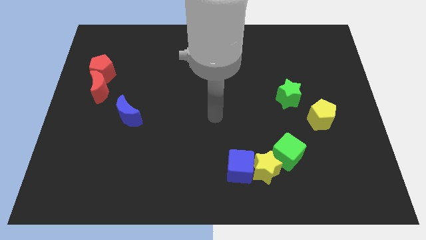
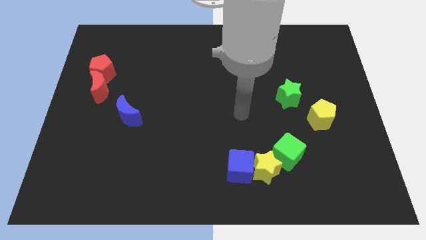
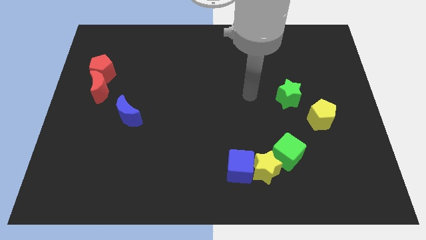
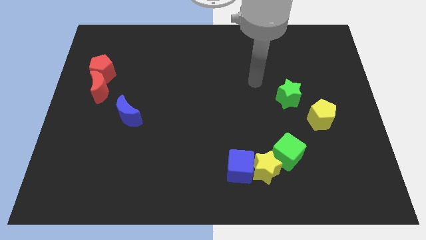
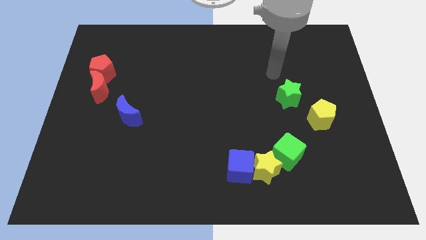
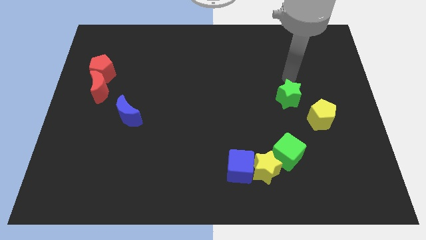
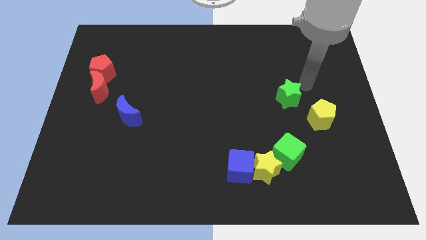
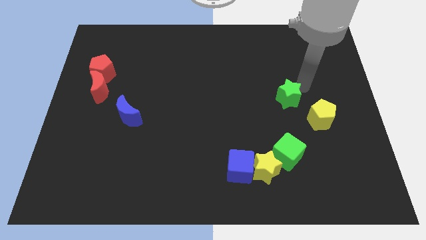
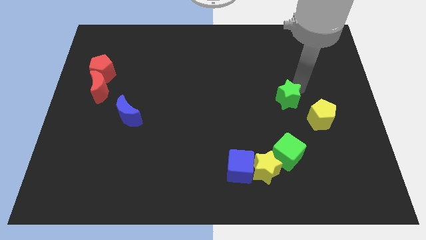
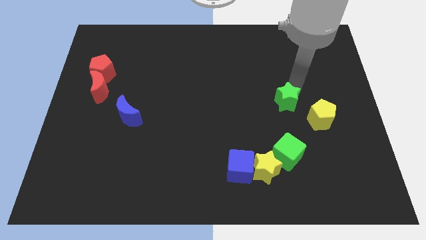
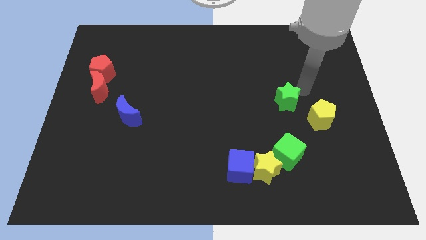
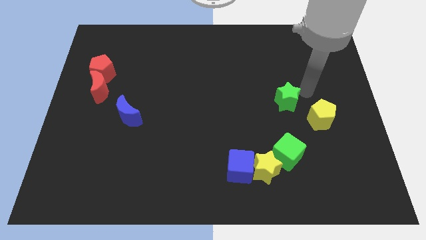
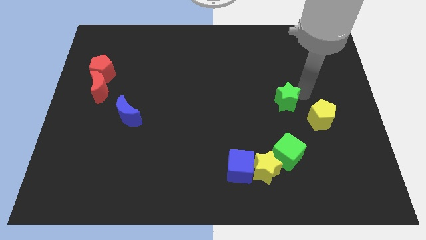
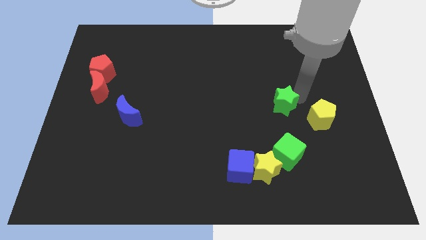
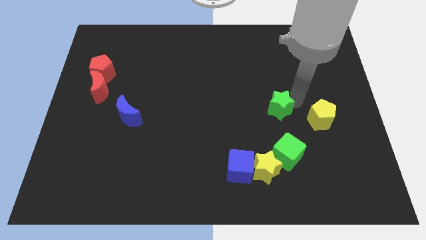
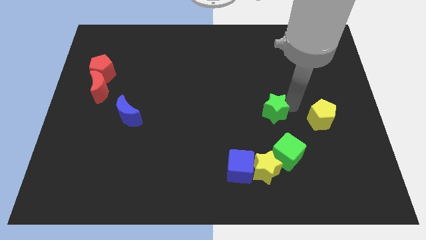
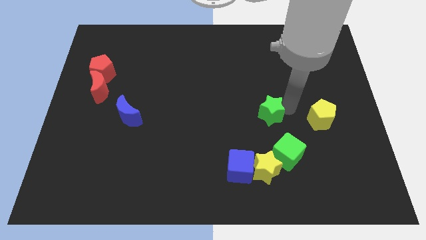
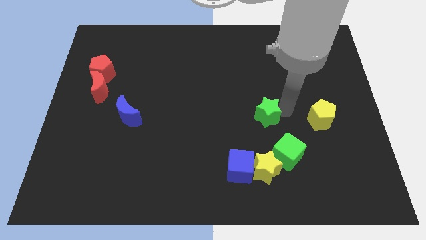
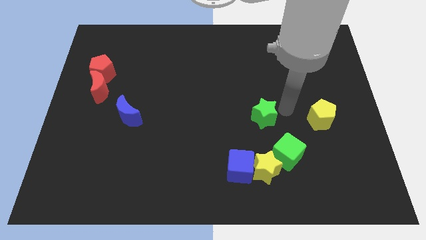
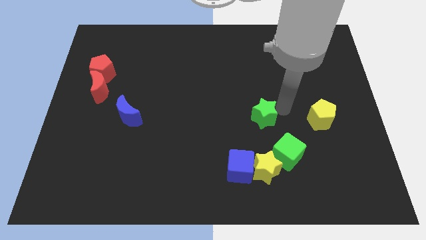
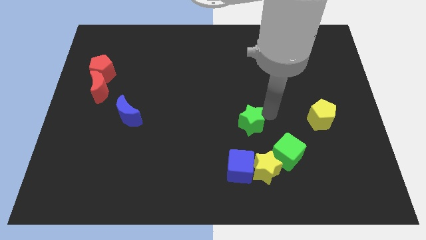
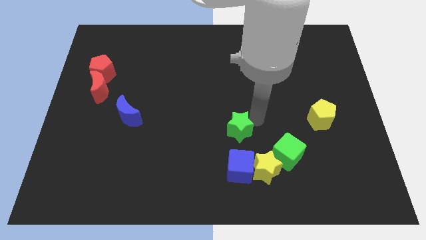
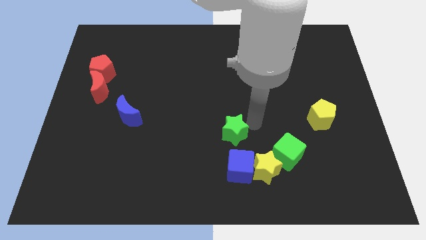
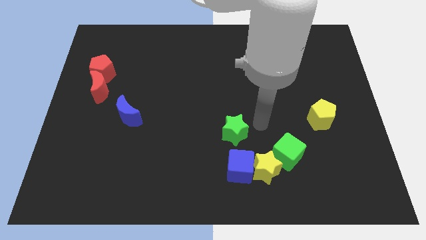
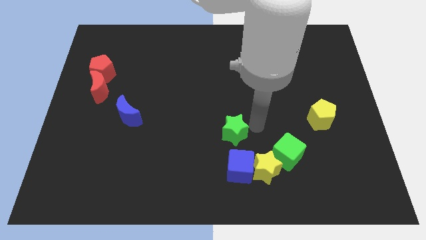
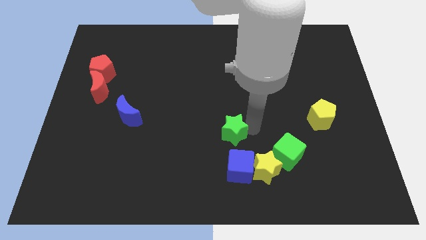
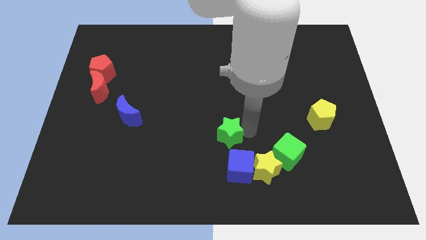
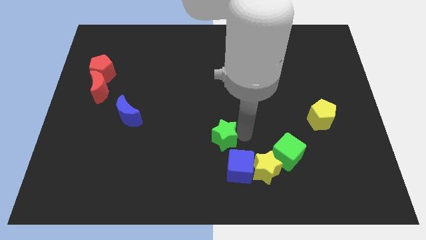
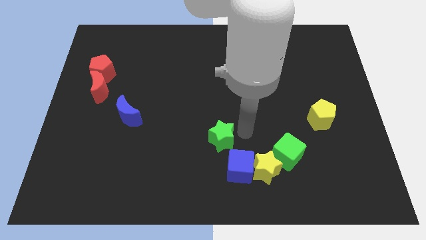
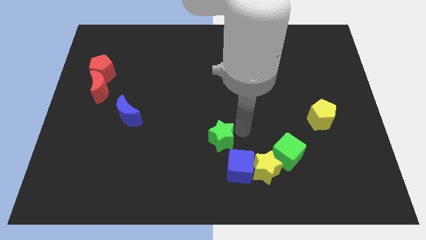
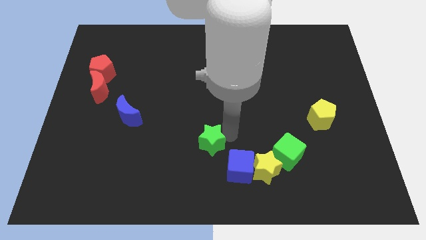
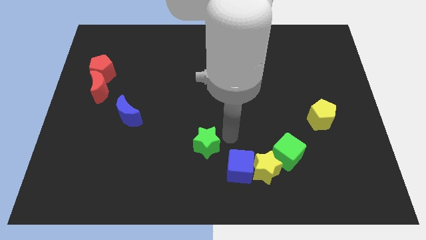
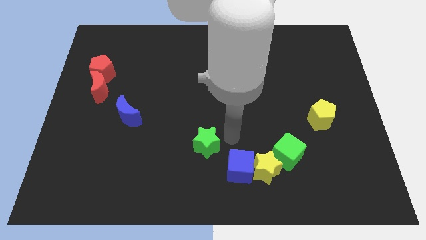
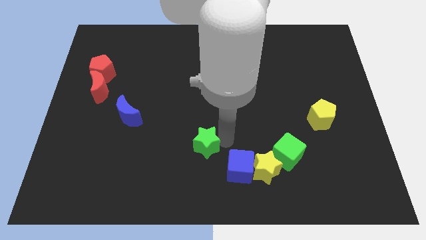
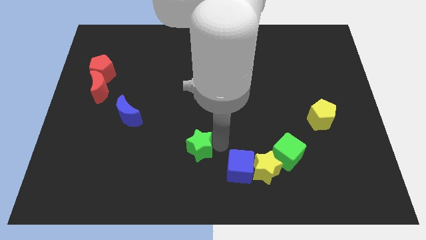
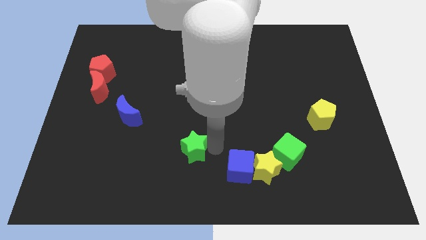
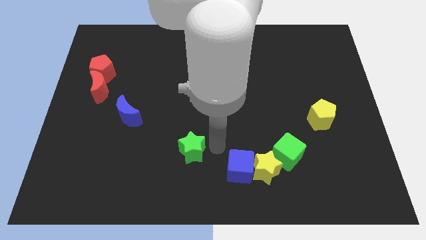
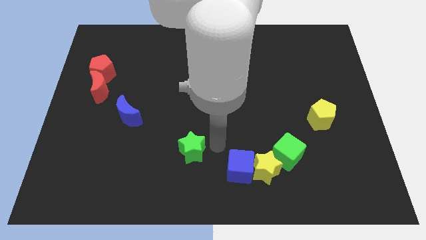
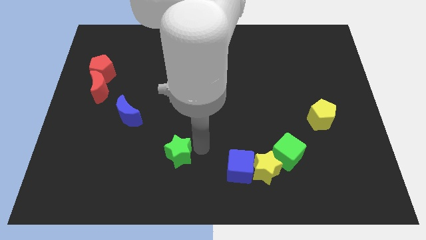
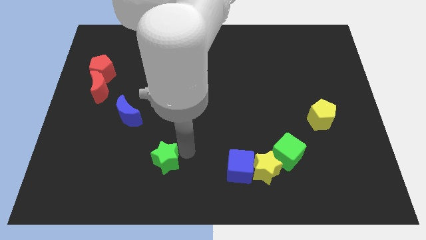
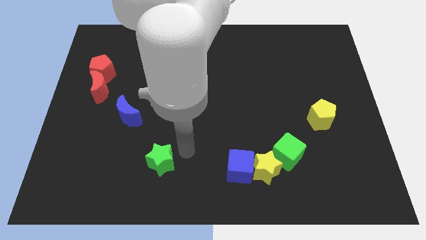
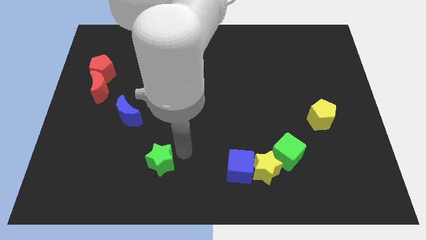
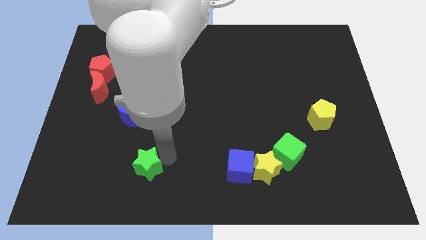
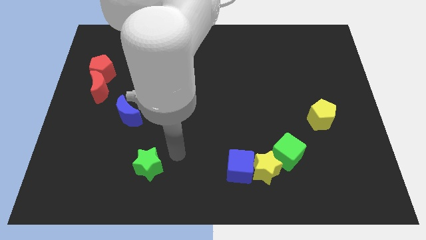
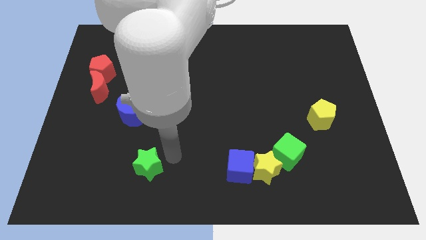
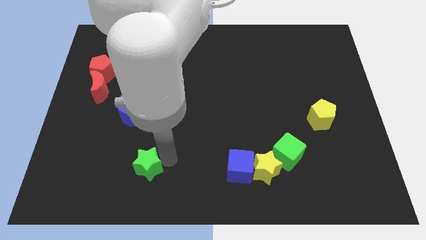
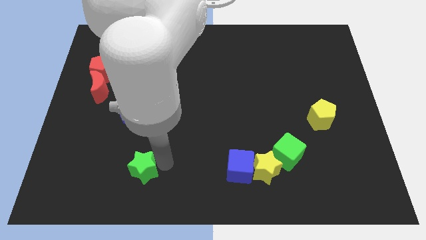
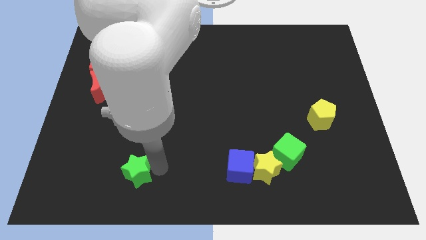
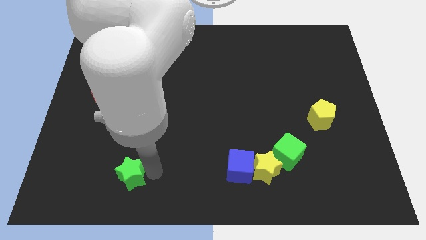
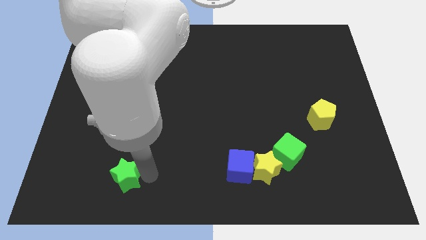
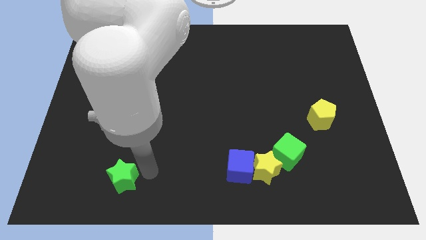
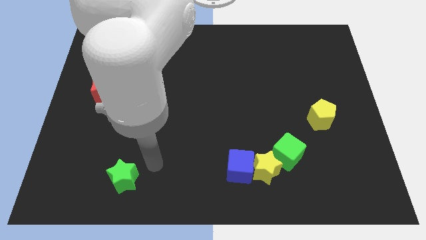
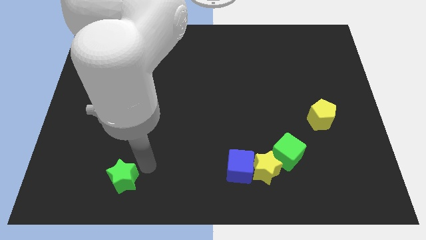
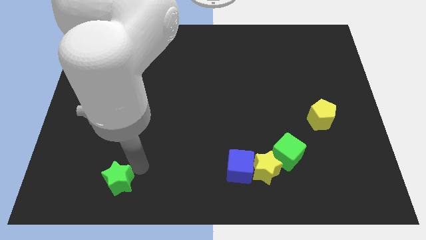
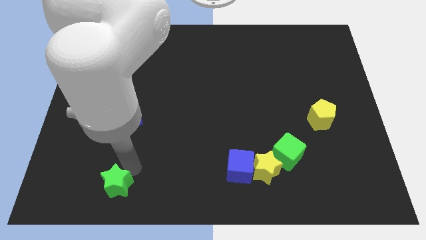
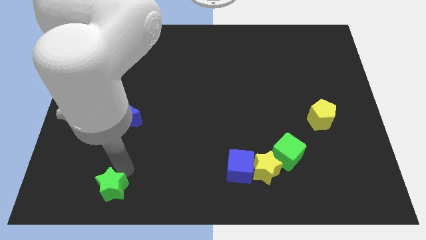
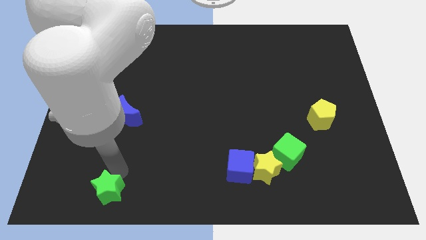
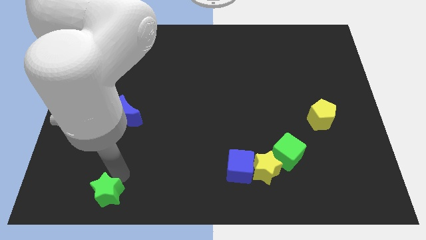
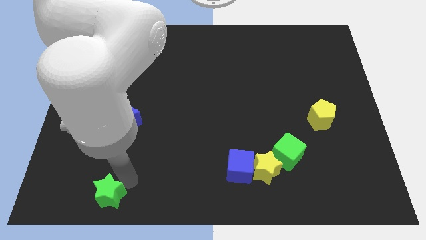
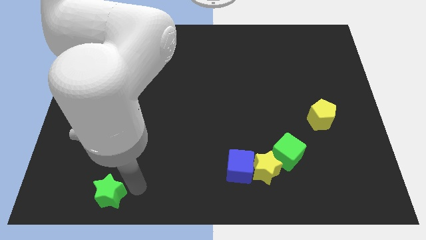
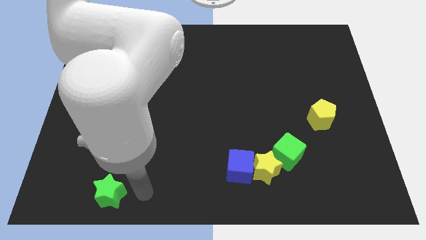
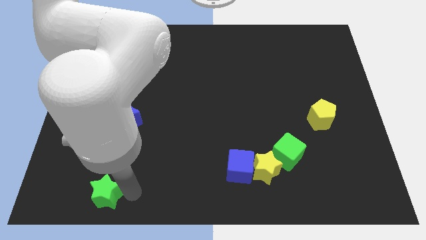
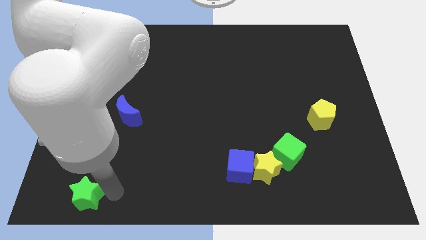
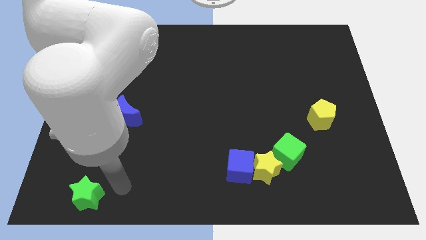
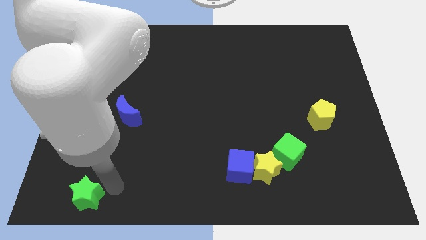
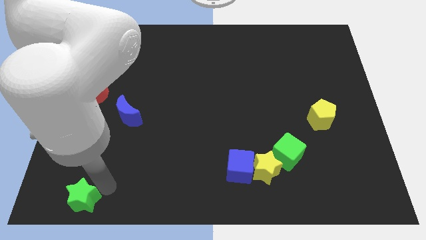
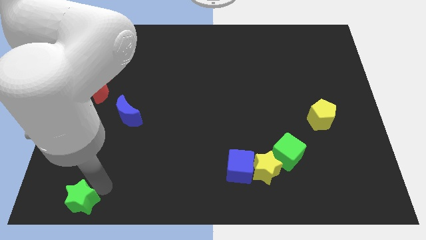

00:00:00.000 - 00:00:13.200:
move the green star to the bottom left of the board
